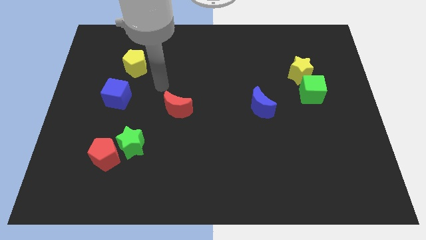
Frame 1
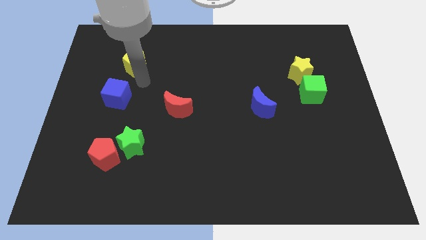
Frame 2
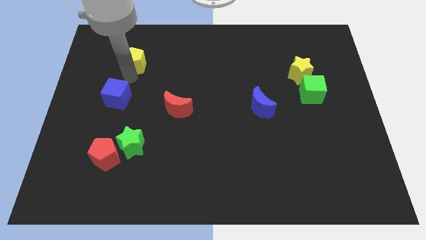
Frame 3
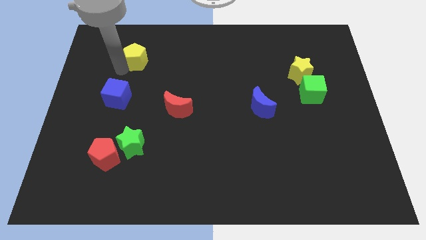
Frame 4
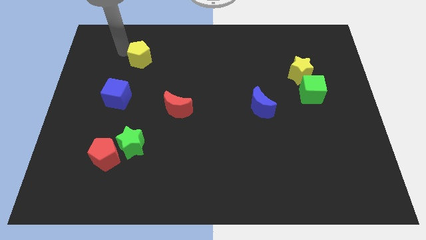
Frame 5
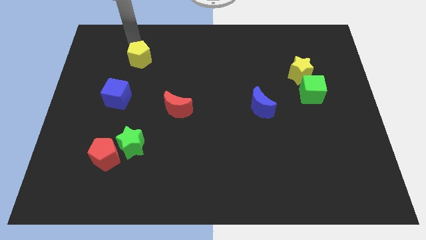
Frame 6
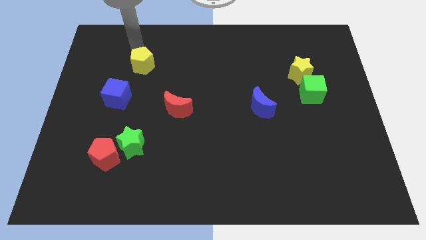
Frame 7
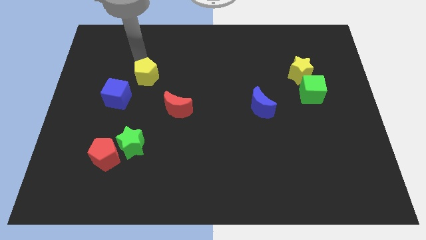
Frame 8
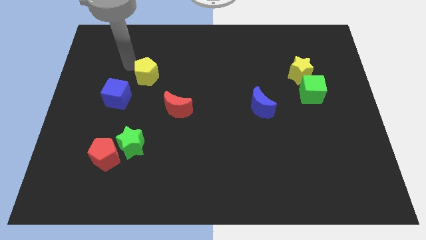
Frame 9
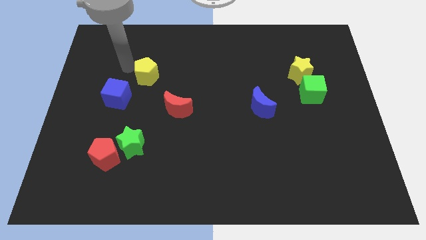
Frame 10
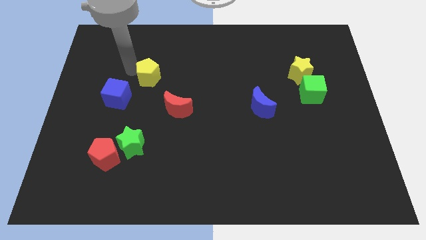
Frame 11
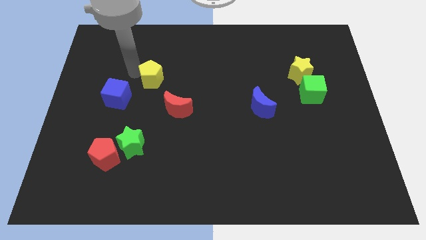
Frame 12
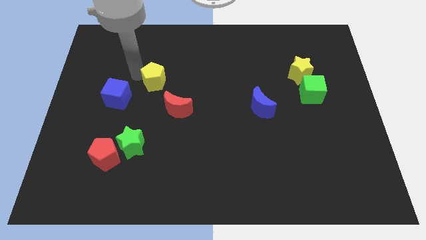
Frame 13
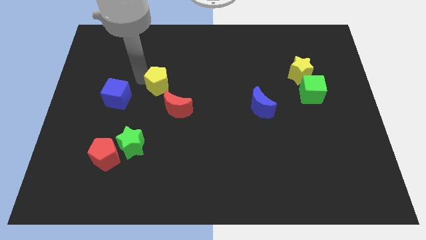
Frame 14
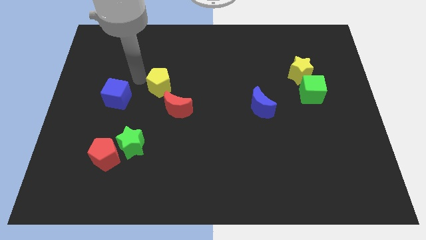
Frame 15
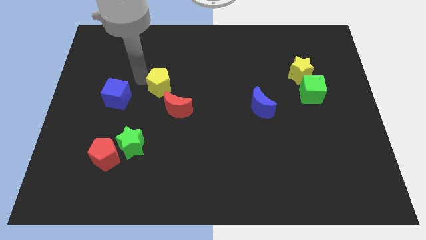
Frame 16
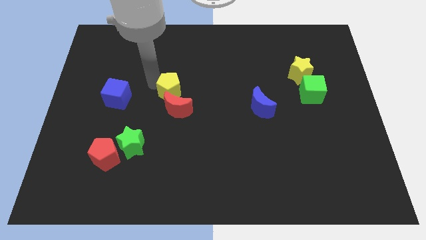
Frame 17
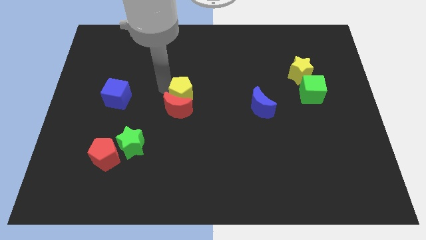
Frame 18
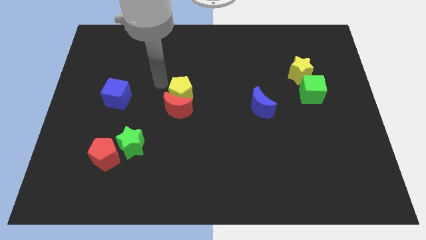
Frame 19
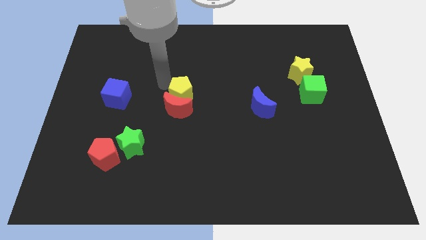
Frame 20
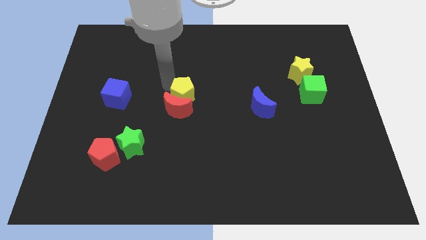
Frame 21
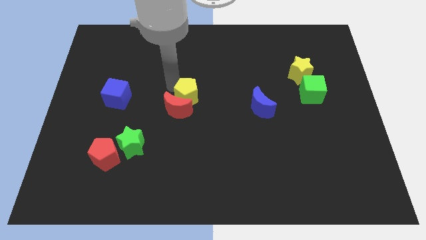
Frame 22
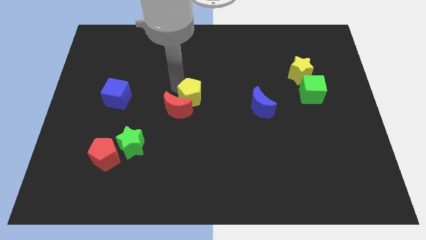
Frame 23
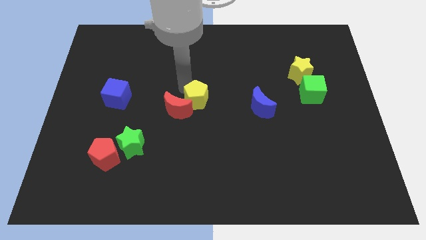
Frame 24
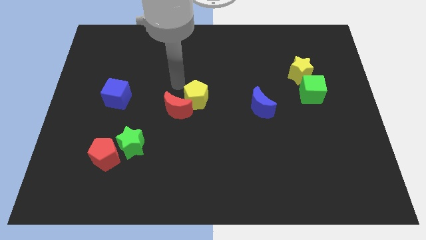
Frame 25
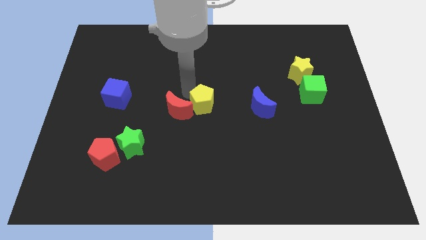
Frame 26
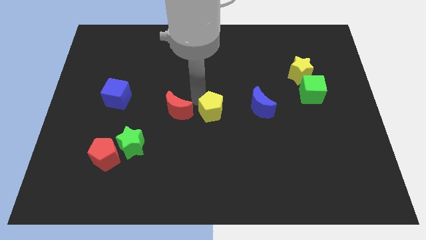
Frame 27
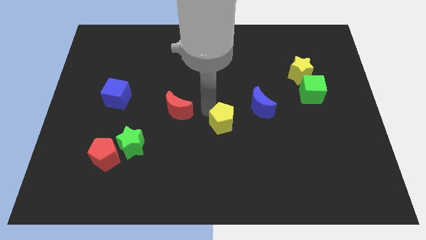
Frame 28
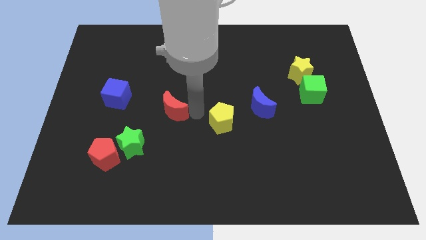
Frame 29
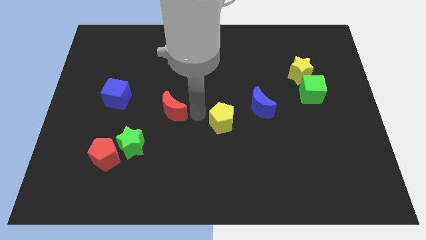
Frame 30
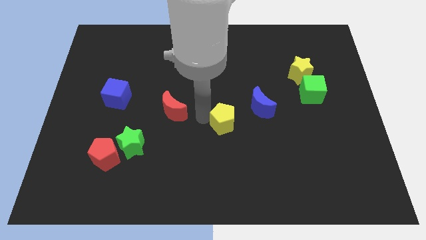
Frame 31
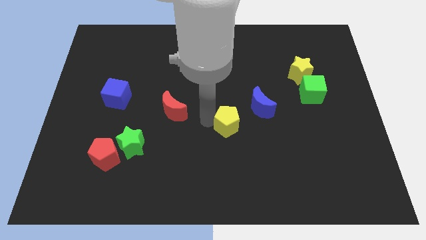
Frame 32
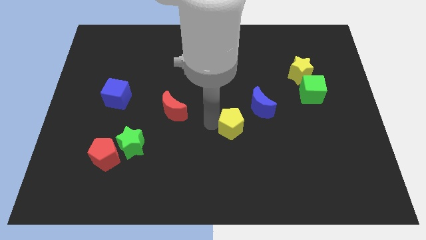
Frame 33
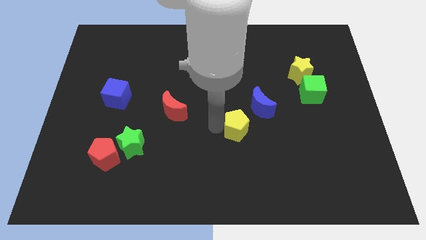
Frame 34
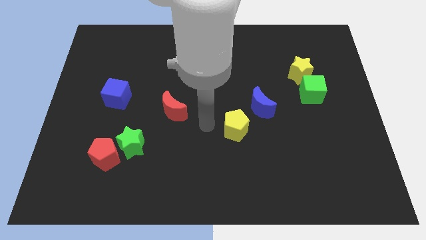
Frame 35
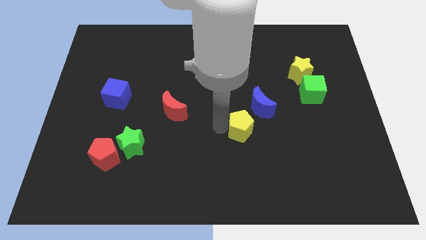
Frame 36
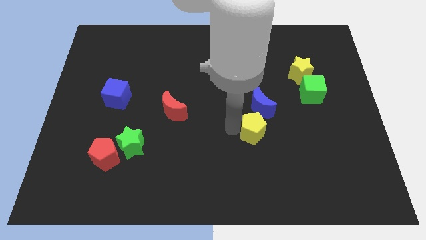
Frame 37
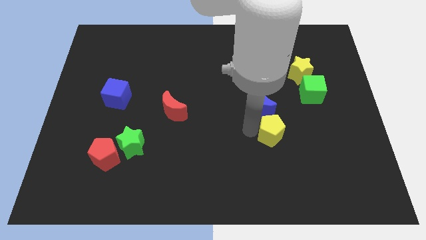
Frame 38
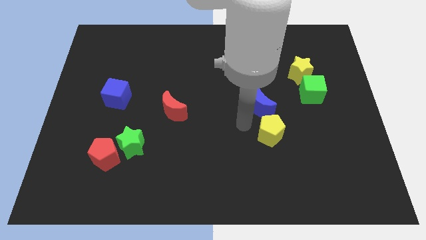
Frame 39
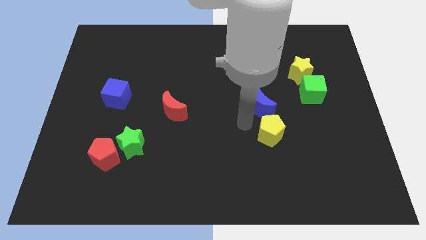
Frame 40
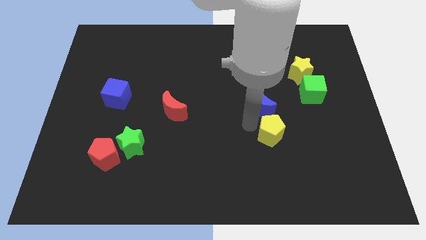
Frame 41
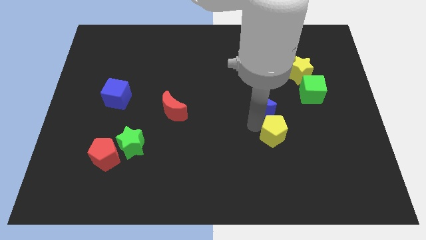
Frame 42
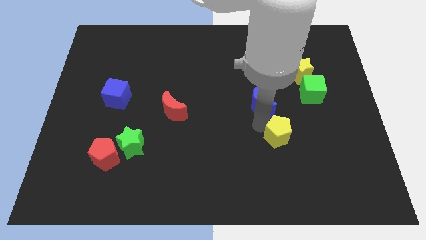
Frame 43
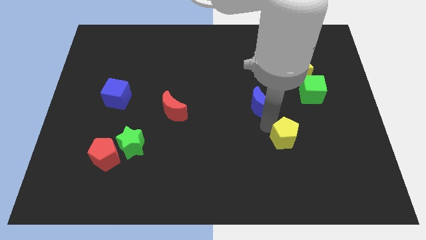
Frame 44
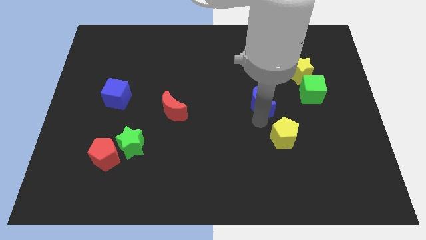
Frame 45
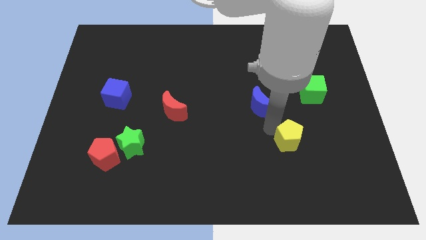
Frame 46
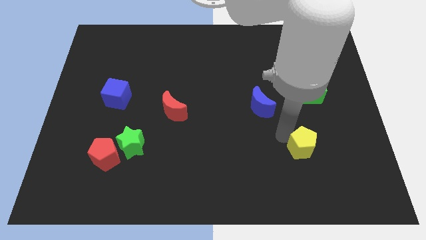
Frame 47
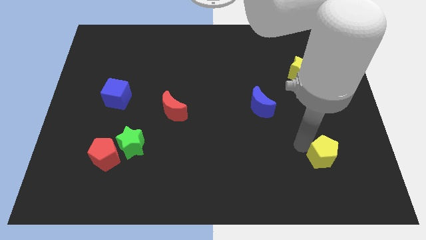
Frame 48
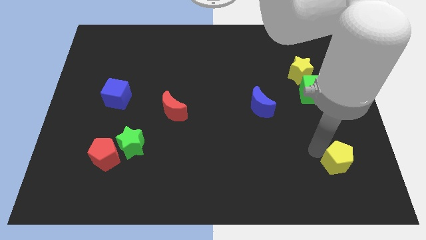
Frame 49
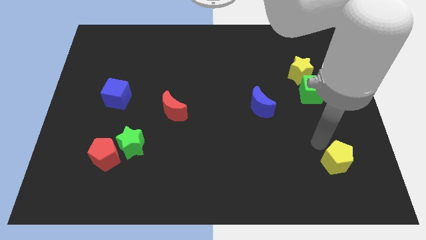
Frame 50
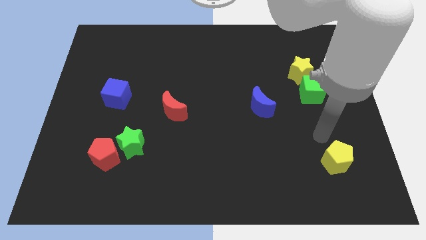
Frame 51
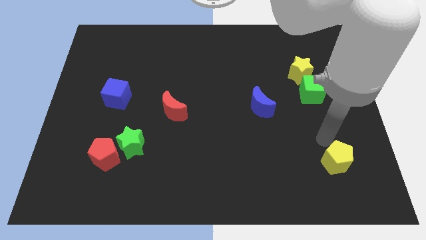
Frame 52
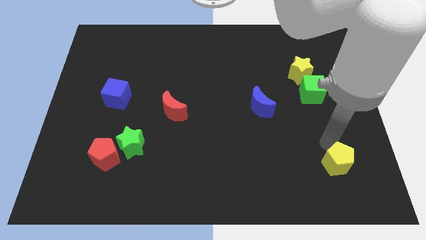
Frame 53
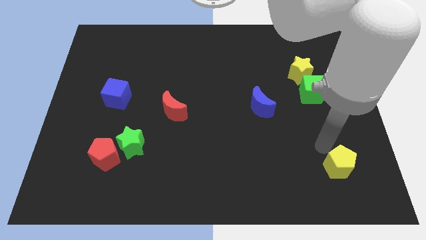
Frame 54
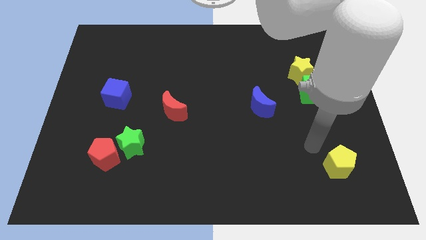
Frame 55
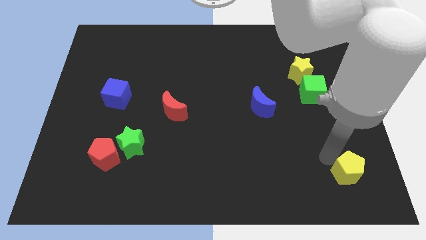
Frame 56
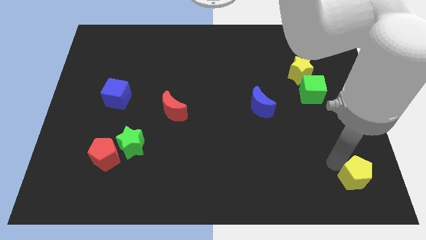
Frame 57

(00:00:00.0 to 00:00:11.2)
put the yellow pentagon to the bottom right of the board

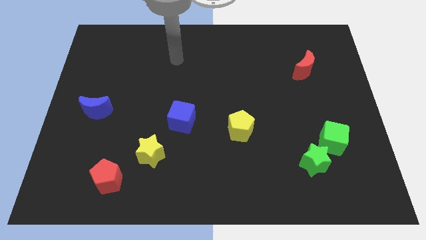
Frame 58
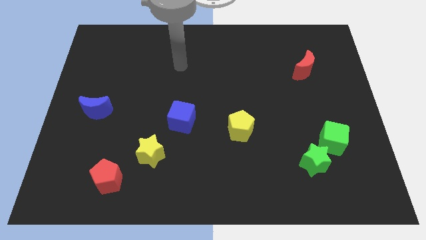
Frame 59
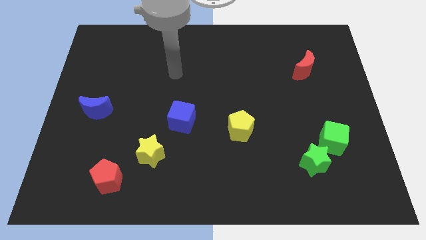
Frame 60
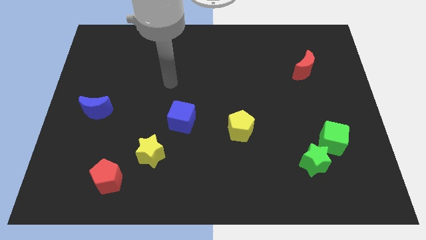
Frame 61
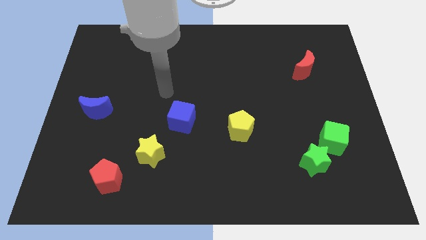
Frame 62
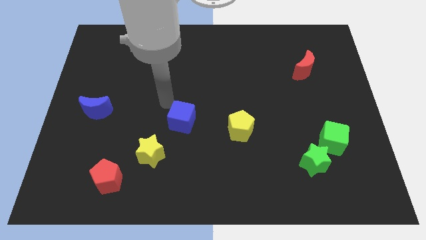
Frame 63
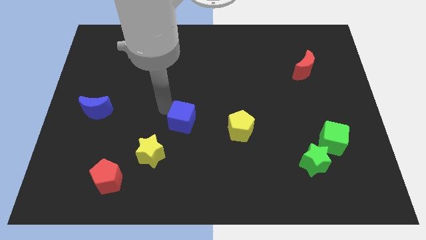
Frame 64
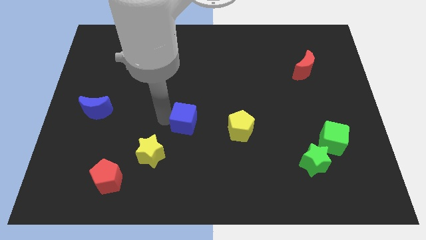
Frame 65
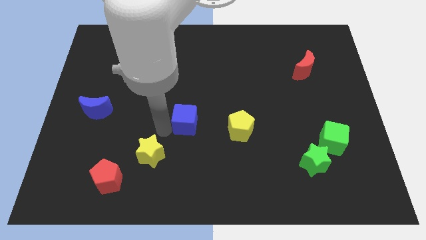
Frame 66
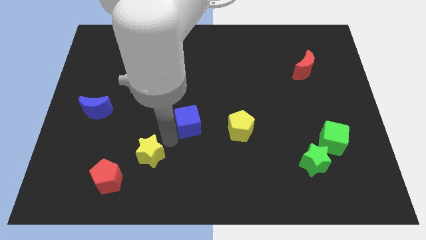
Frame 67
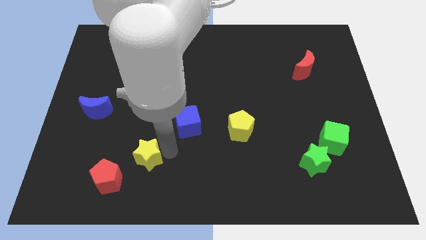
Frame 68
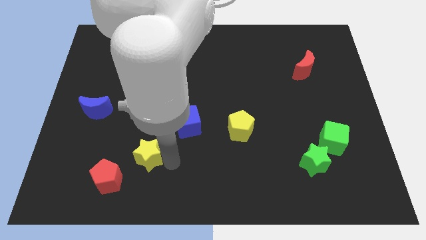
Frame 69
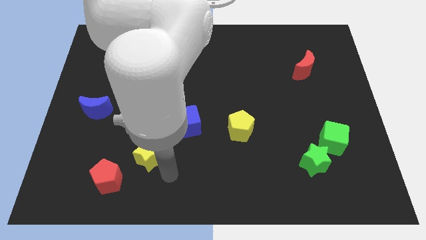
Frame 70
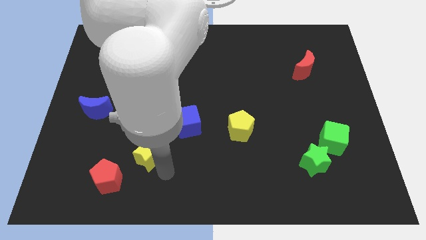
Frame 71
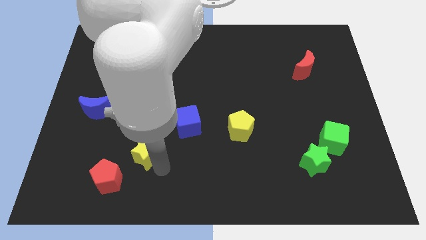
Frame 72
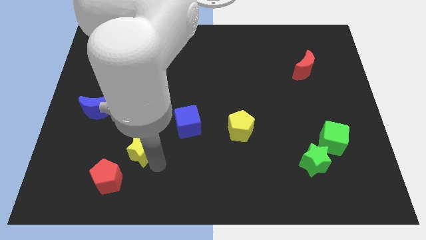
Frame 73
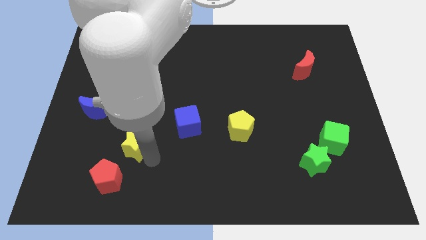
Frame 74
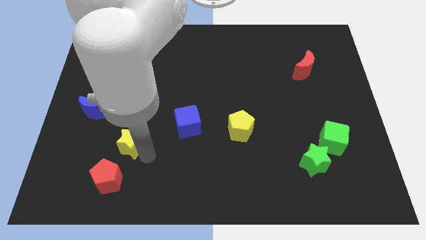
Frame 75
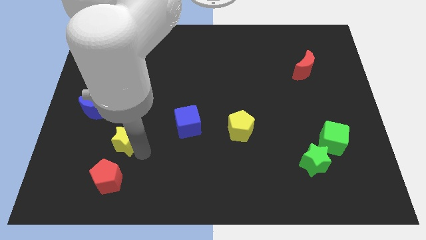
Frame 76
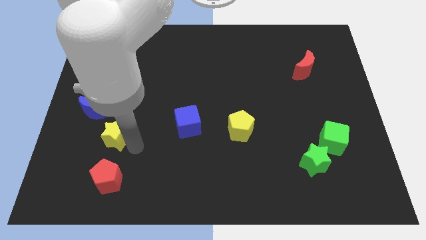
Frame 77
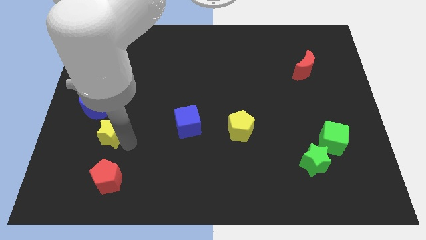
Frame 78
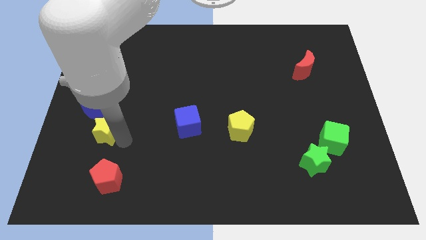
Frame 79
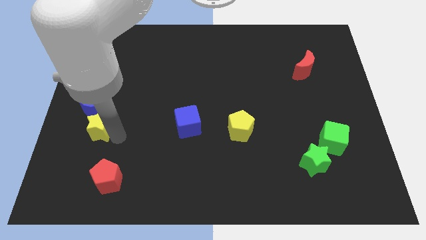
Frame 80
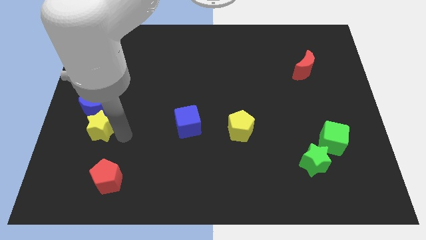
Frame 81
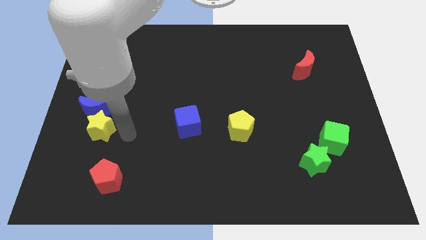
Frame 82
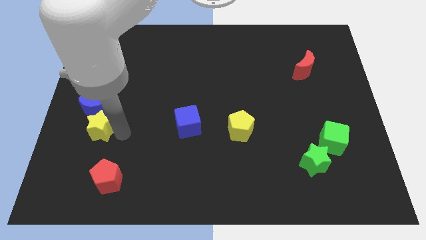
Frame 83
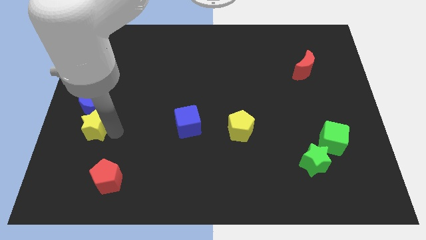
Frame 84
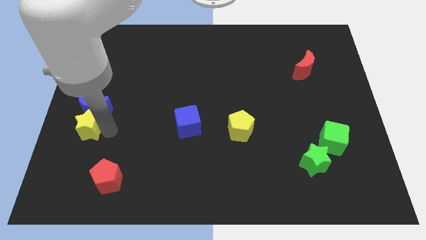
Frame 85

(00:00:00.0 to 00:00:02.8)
push the yellow star to the left side of the board
